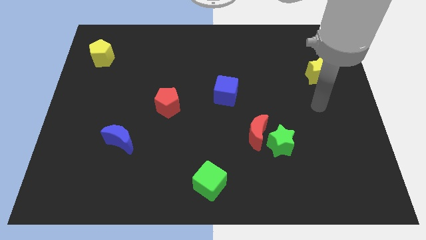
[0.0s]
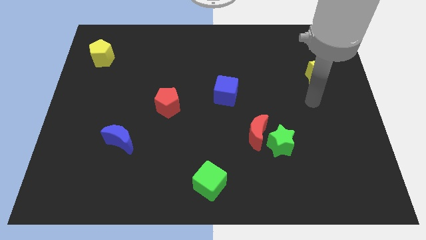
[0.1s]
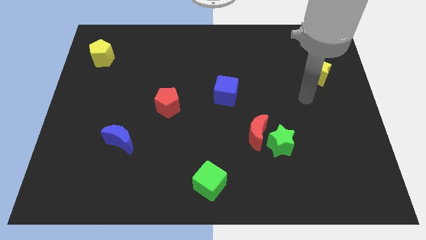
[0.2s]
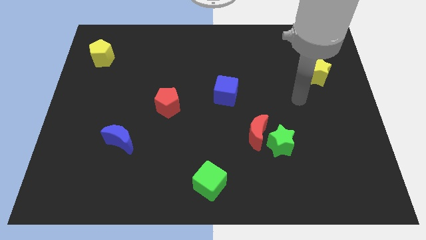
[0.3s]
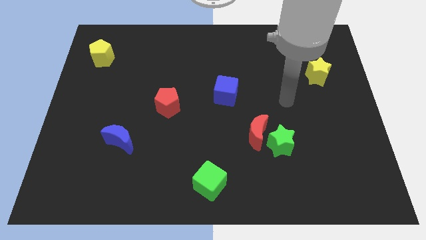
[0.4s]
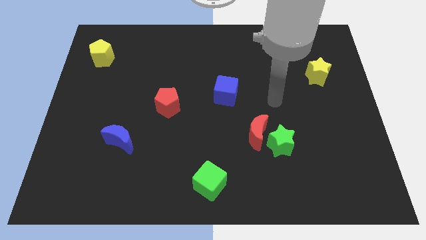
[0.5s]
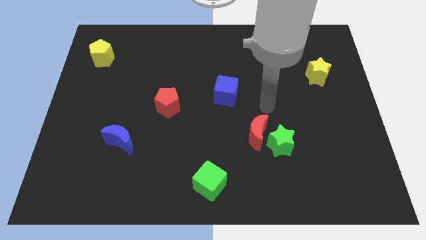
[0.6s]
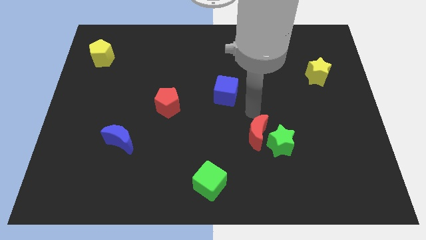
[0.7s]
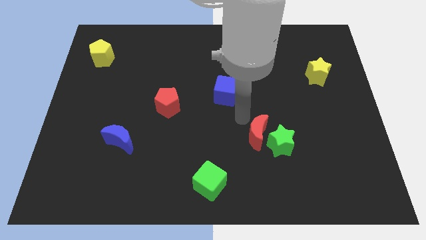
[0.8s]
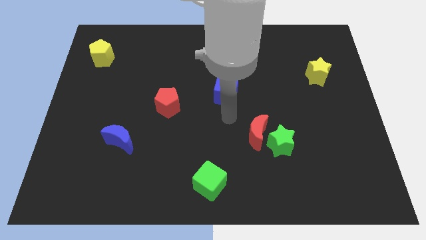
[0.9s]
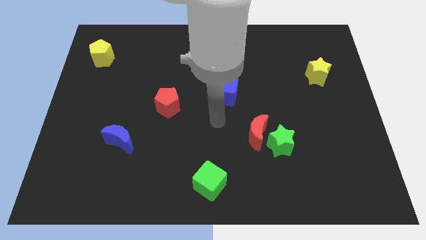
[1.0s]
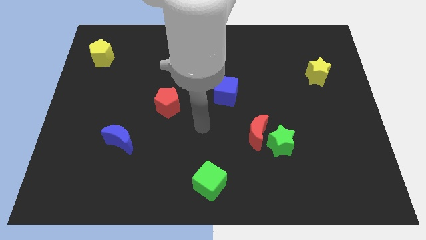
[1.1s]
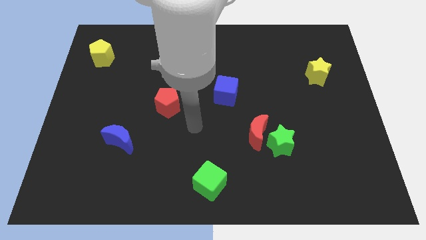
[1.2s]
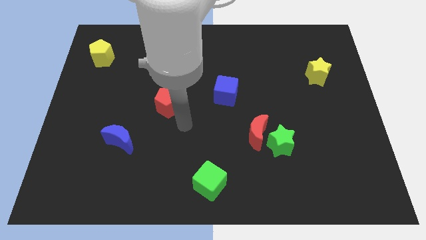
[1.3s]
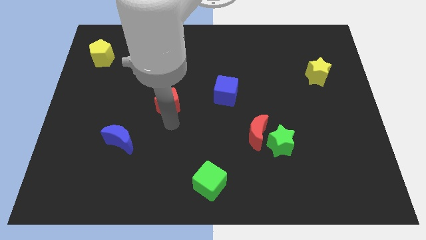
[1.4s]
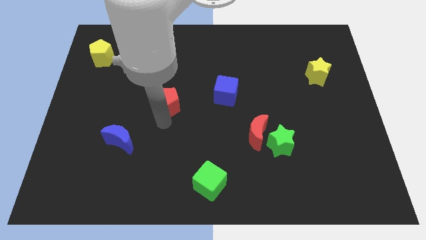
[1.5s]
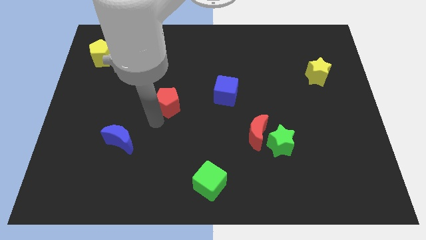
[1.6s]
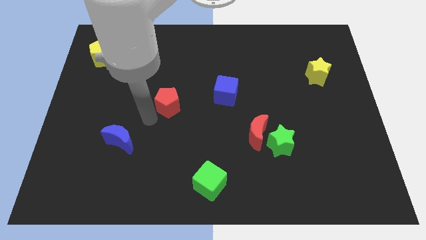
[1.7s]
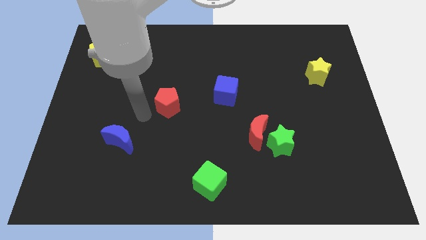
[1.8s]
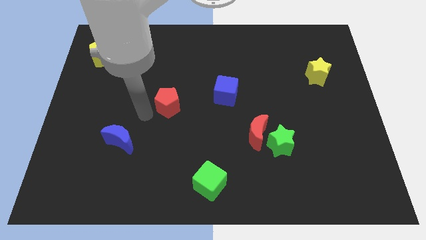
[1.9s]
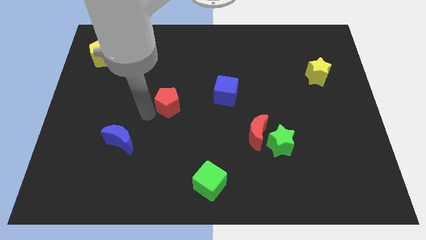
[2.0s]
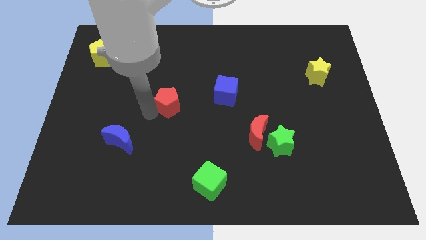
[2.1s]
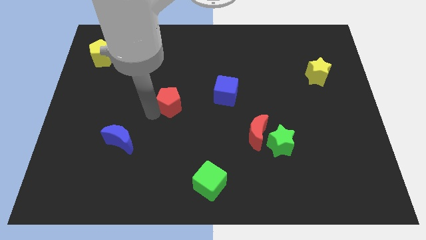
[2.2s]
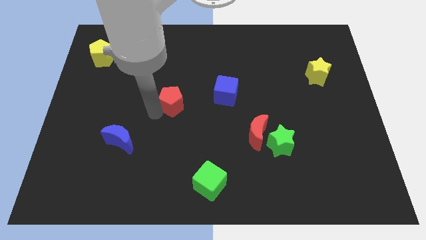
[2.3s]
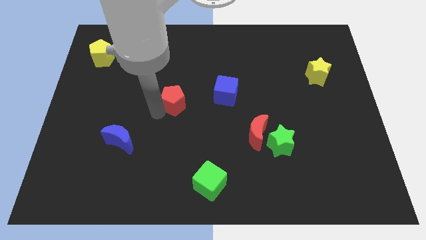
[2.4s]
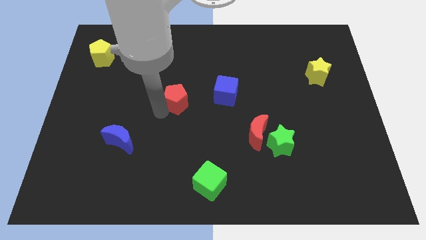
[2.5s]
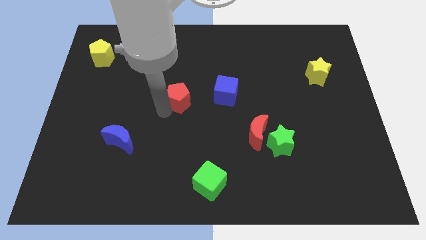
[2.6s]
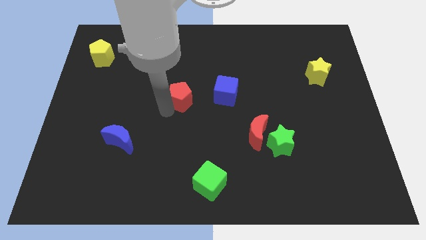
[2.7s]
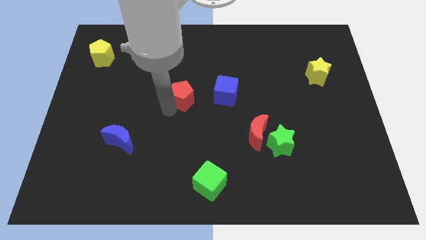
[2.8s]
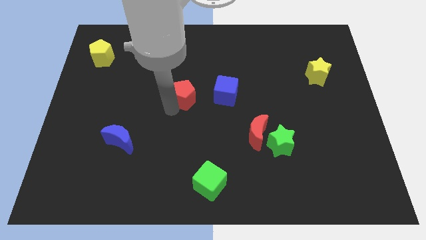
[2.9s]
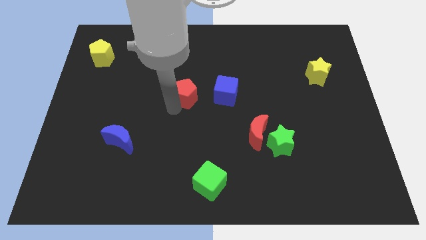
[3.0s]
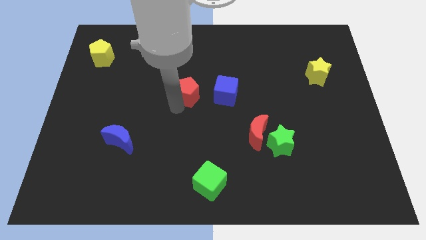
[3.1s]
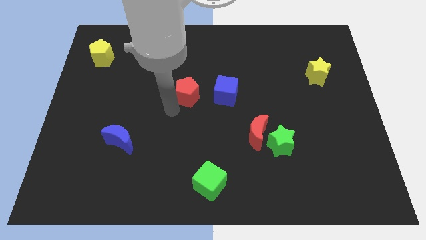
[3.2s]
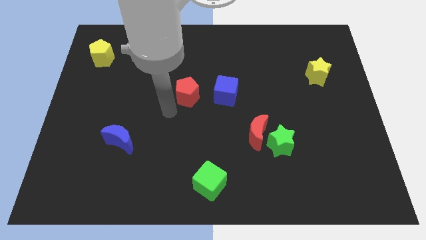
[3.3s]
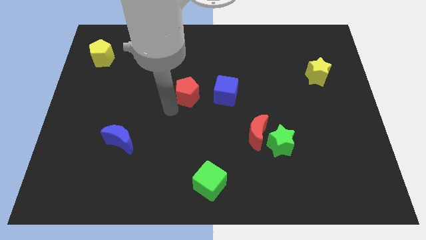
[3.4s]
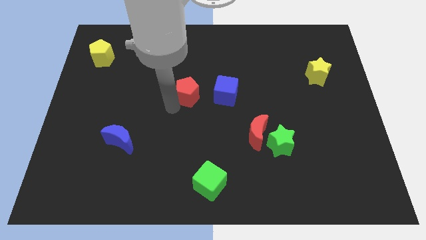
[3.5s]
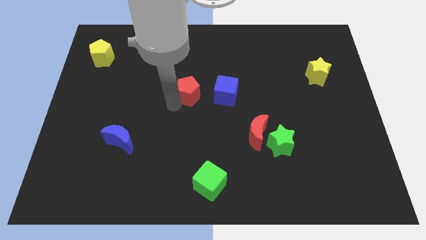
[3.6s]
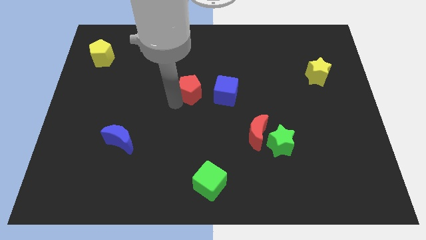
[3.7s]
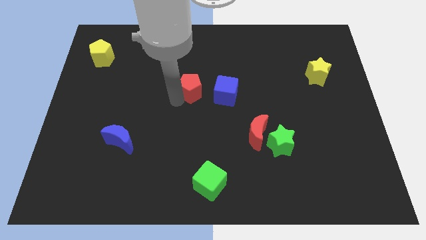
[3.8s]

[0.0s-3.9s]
move the red pentagon a little bit upwards and then to the right

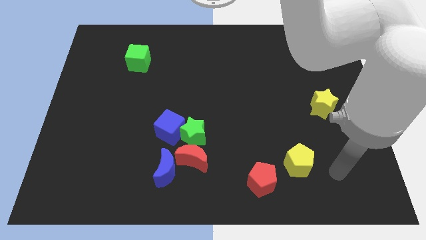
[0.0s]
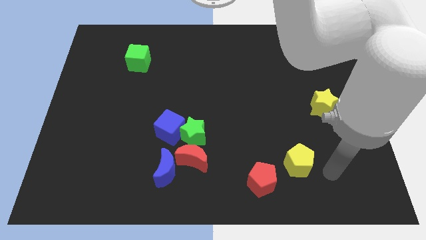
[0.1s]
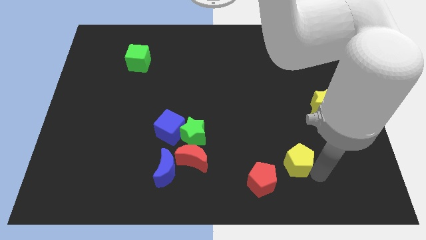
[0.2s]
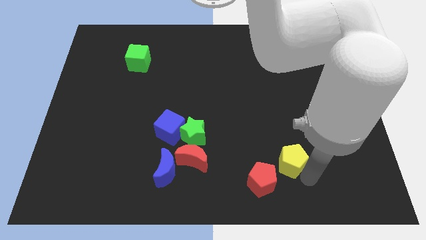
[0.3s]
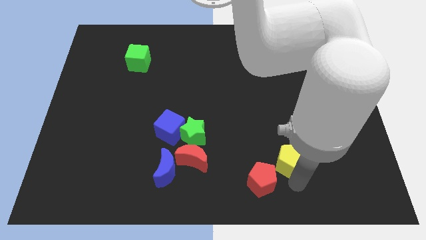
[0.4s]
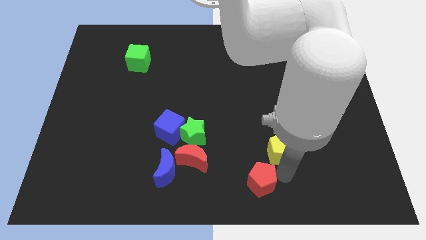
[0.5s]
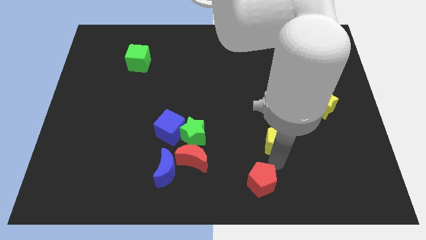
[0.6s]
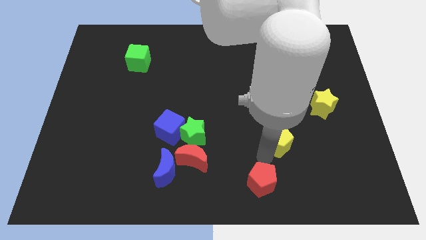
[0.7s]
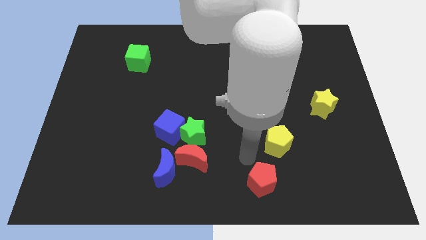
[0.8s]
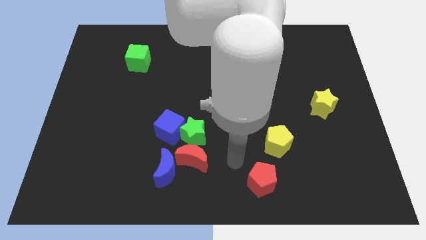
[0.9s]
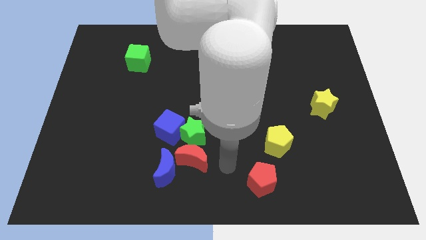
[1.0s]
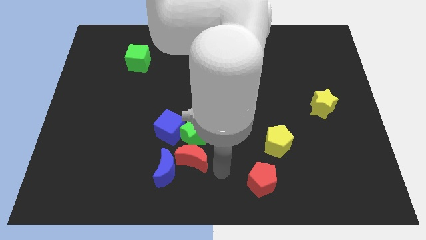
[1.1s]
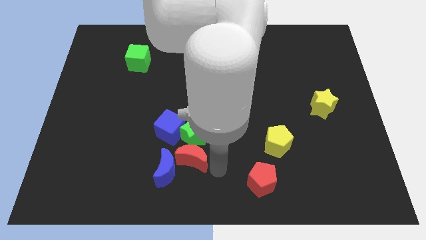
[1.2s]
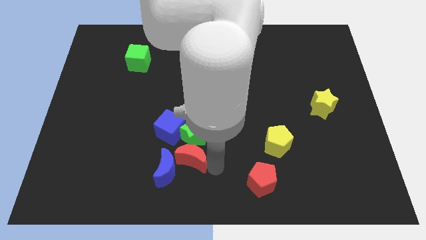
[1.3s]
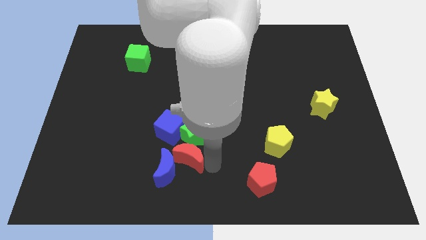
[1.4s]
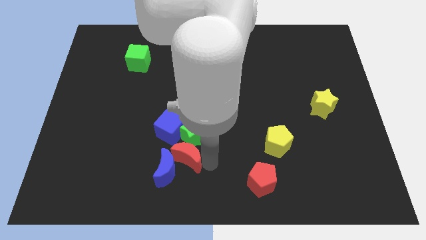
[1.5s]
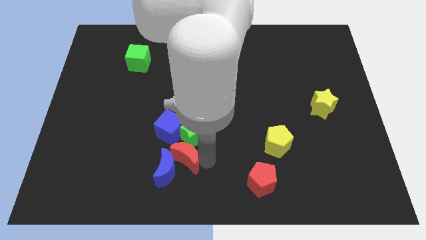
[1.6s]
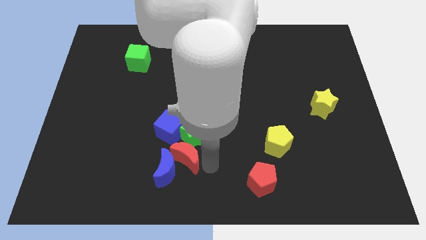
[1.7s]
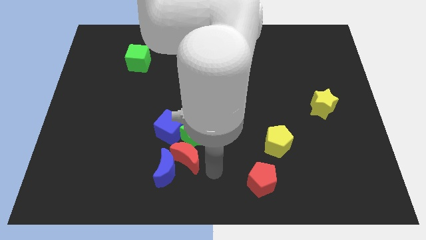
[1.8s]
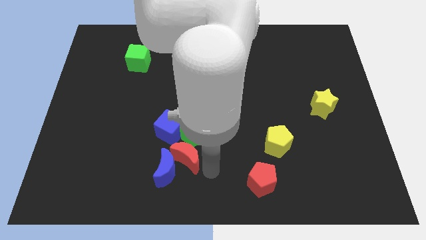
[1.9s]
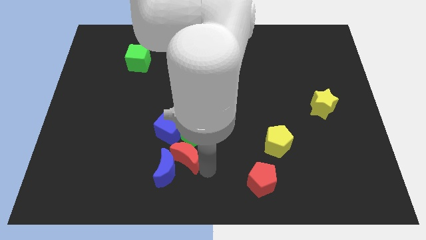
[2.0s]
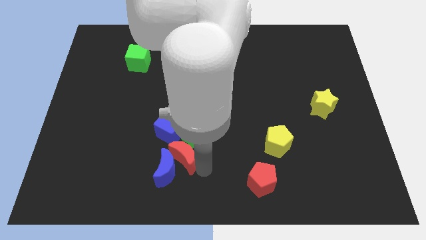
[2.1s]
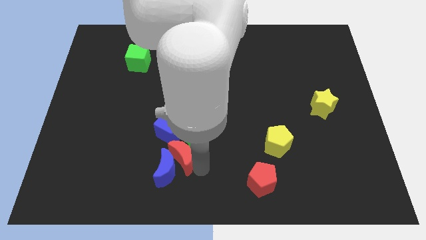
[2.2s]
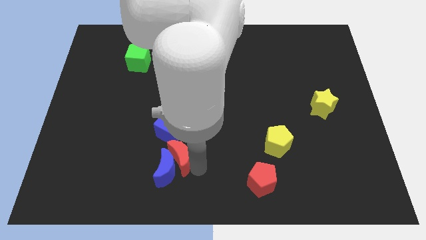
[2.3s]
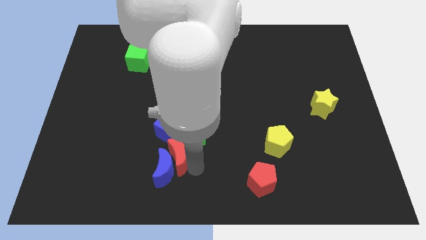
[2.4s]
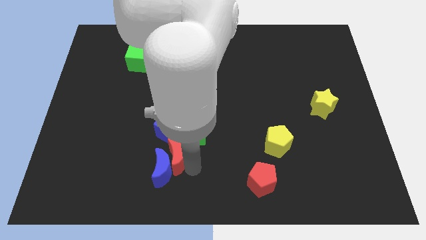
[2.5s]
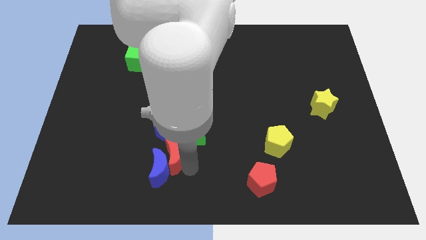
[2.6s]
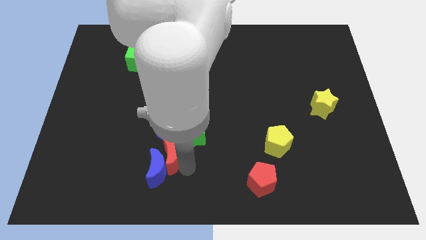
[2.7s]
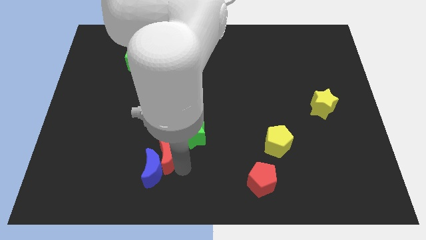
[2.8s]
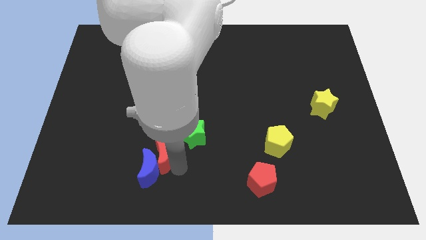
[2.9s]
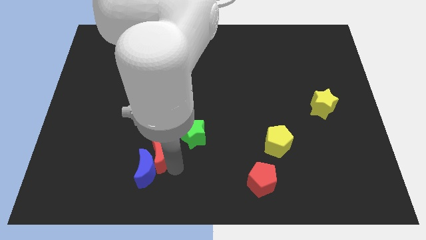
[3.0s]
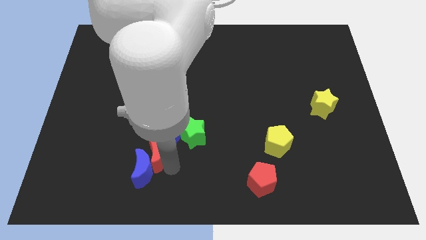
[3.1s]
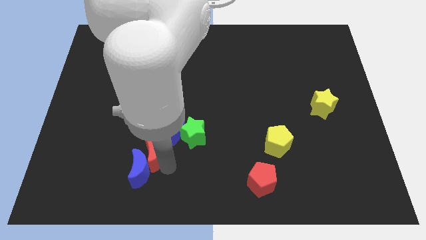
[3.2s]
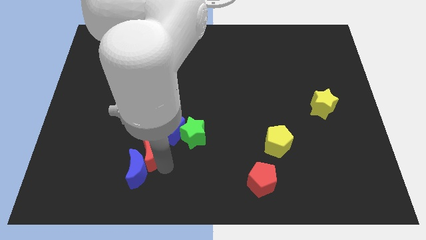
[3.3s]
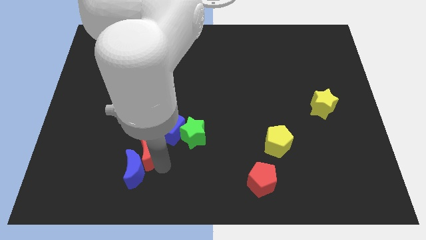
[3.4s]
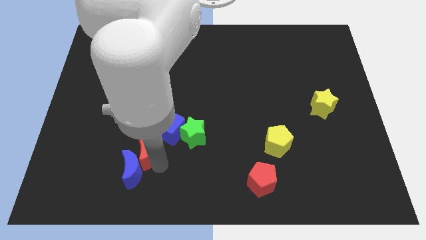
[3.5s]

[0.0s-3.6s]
slide the red moon upwards and left somewhat

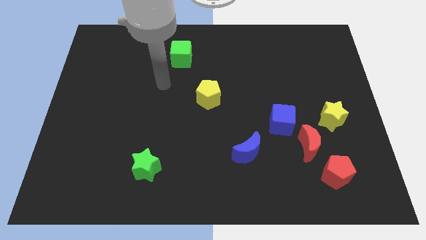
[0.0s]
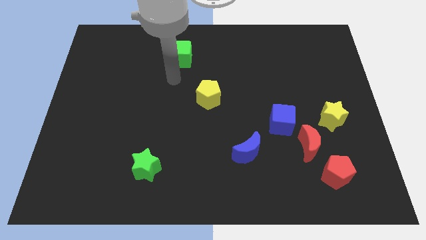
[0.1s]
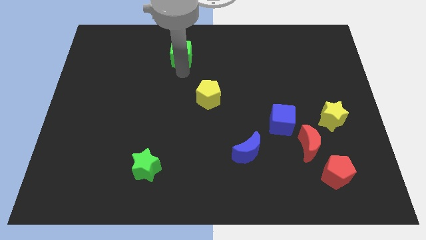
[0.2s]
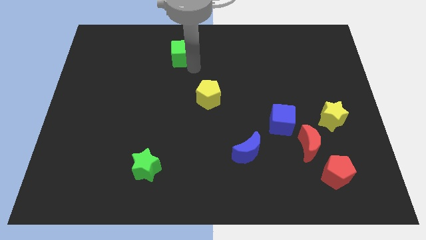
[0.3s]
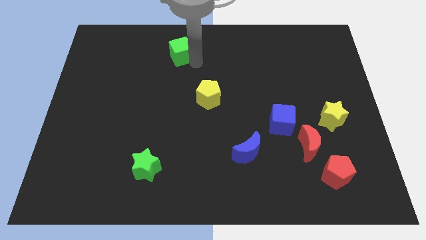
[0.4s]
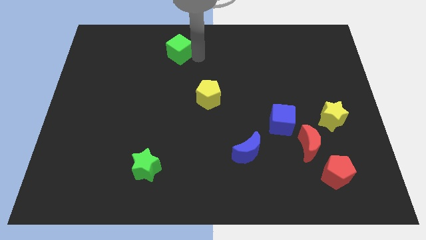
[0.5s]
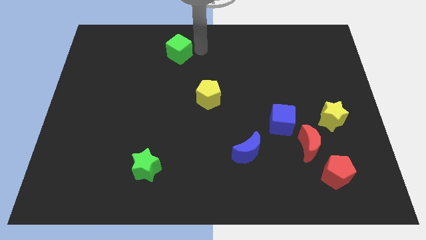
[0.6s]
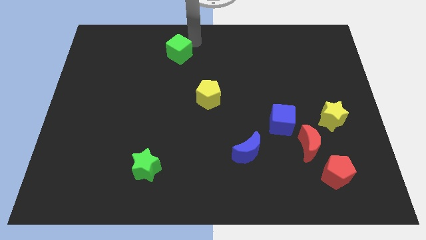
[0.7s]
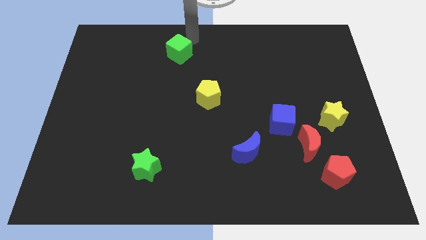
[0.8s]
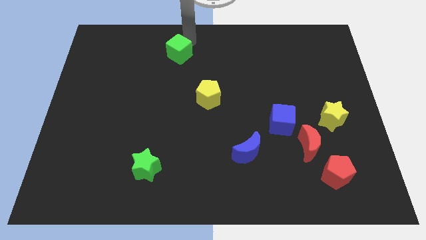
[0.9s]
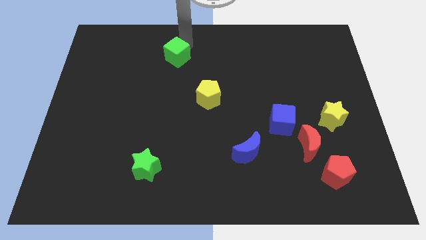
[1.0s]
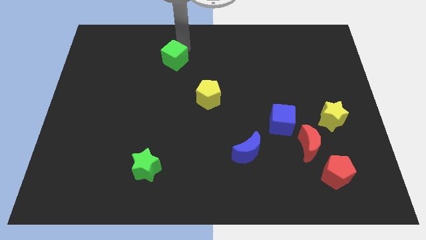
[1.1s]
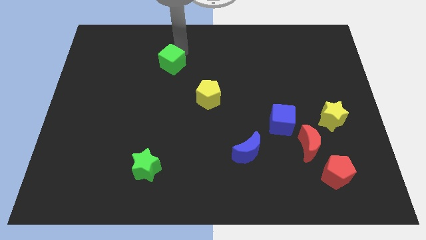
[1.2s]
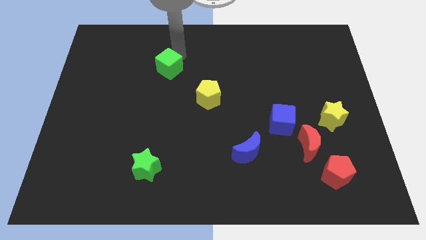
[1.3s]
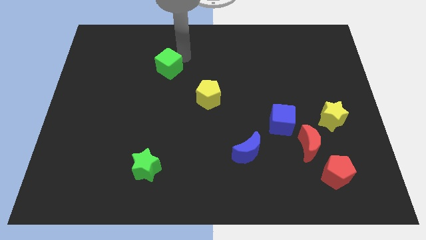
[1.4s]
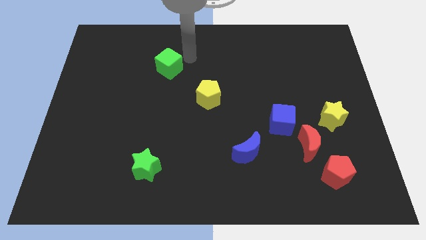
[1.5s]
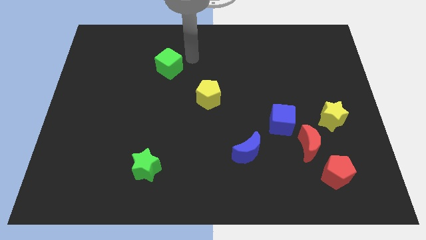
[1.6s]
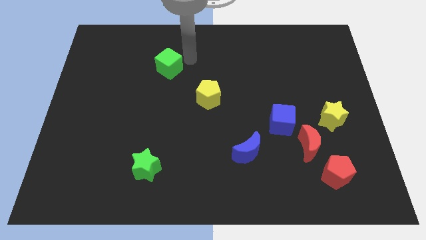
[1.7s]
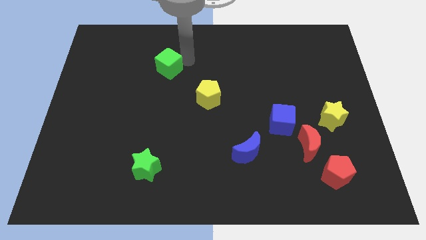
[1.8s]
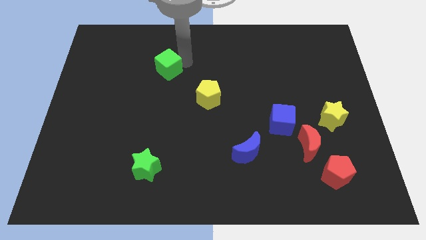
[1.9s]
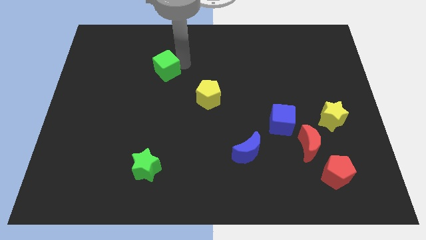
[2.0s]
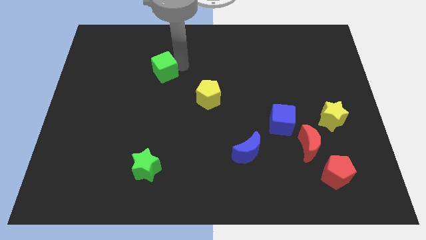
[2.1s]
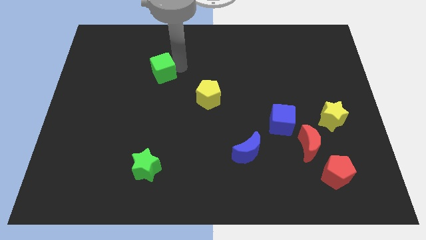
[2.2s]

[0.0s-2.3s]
move the green cube somewhat diagonally downwards and left
